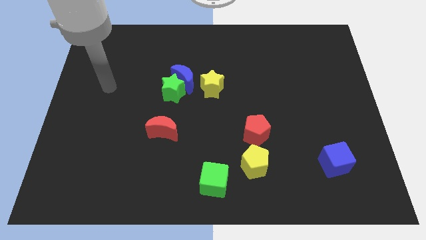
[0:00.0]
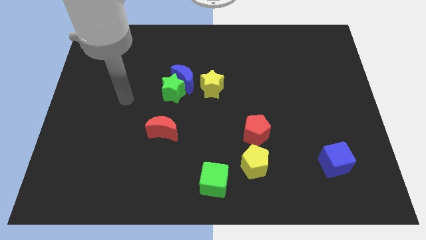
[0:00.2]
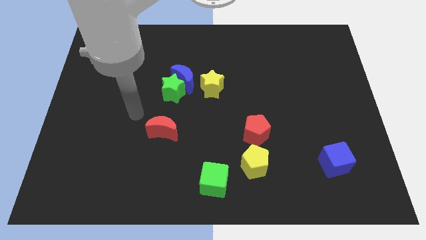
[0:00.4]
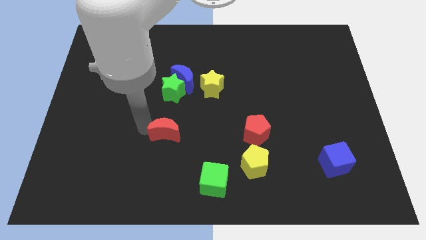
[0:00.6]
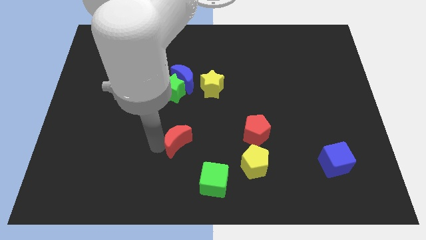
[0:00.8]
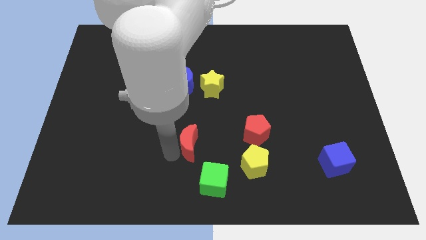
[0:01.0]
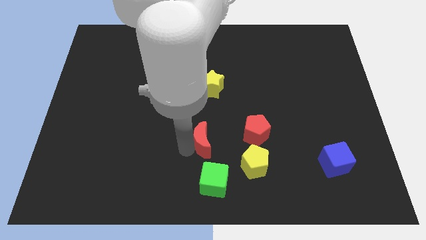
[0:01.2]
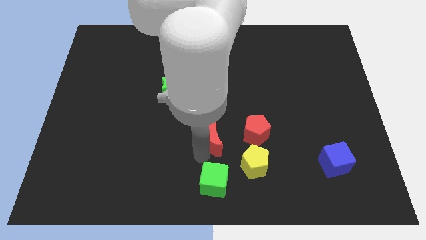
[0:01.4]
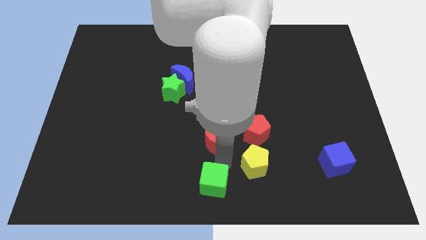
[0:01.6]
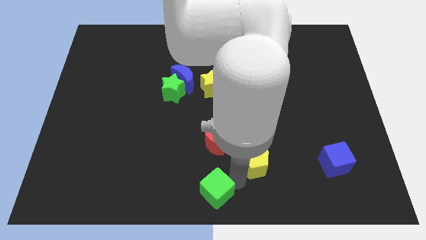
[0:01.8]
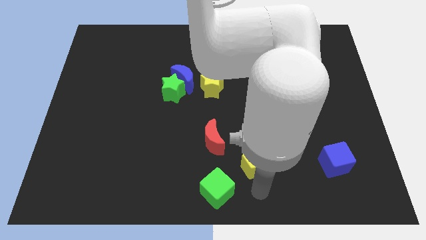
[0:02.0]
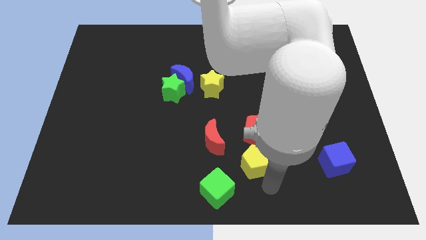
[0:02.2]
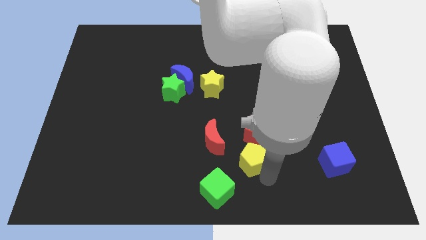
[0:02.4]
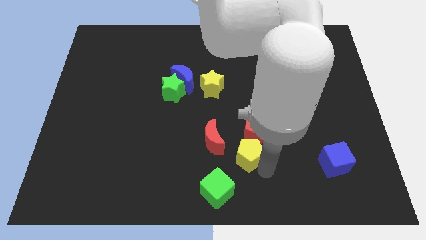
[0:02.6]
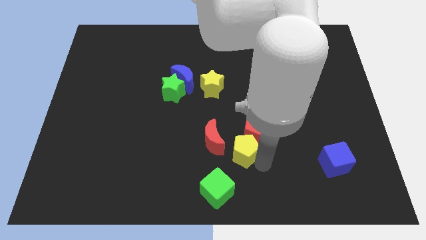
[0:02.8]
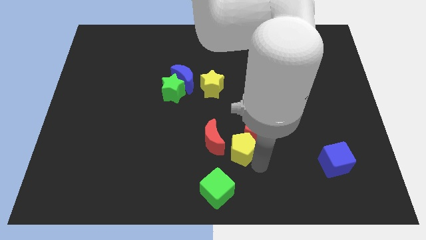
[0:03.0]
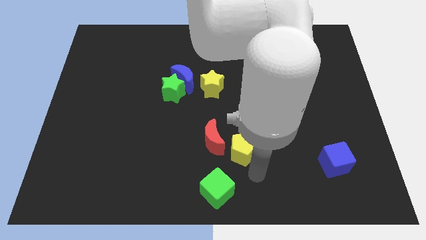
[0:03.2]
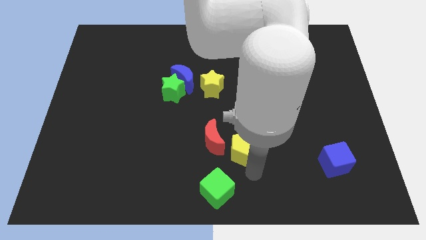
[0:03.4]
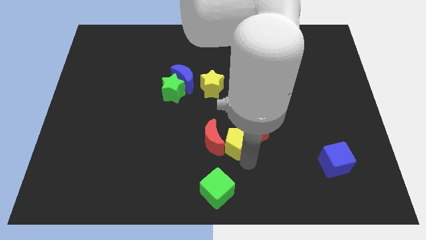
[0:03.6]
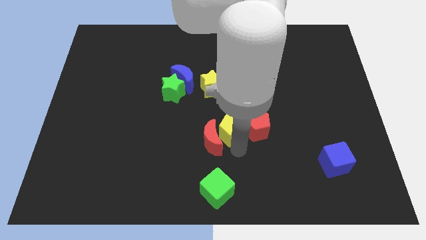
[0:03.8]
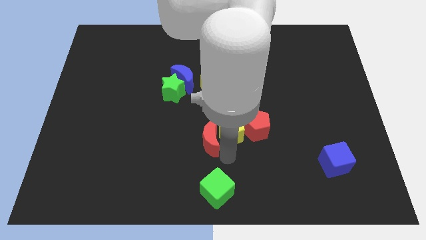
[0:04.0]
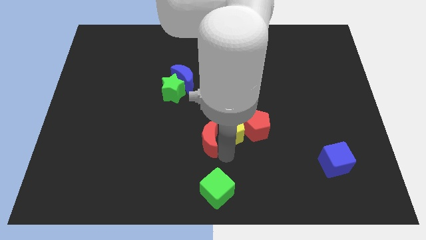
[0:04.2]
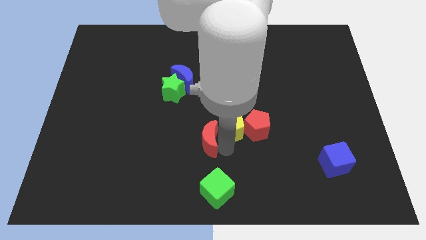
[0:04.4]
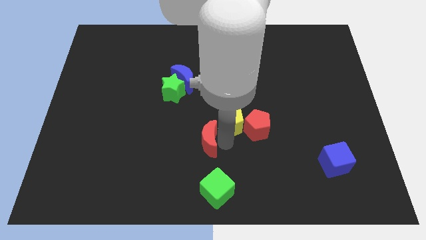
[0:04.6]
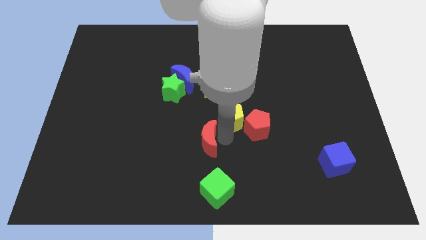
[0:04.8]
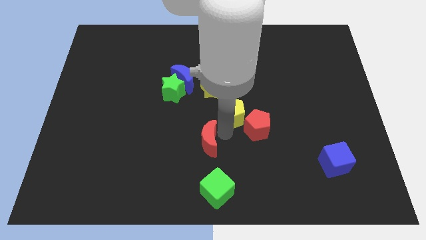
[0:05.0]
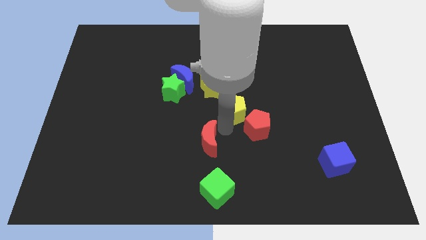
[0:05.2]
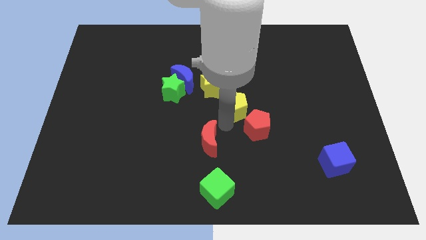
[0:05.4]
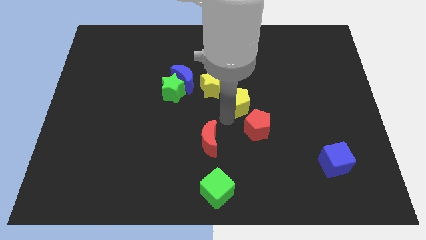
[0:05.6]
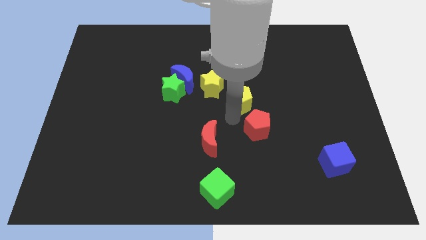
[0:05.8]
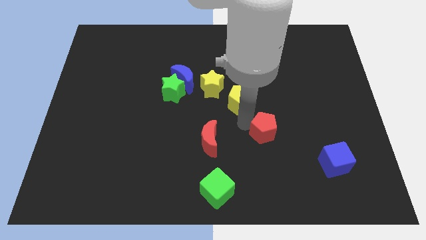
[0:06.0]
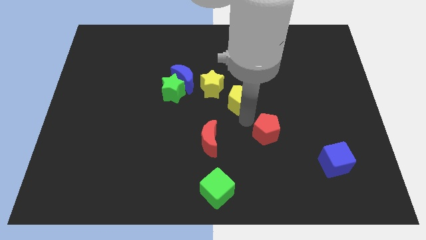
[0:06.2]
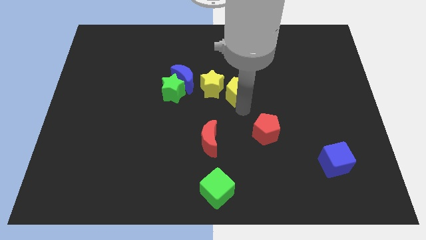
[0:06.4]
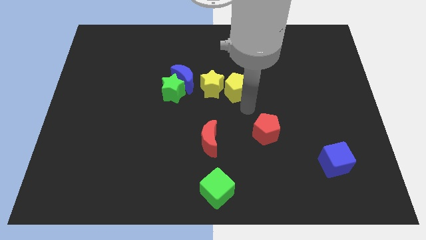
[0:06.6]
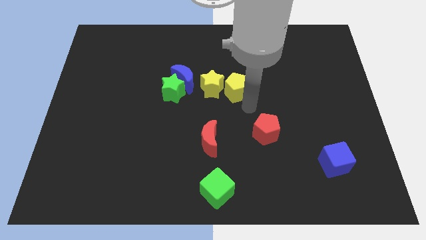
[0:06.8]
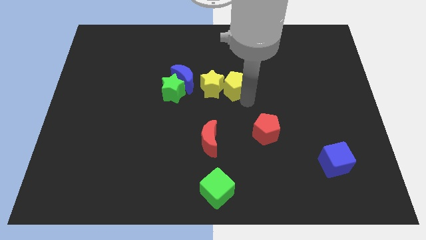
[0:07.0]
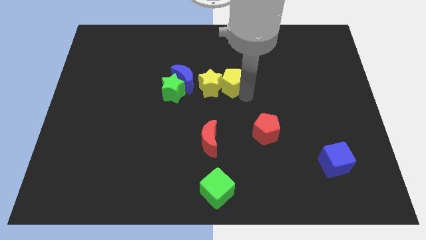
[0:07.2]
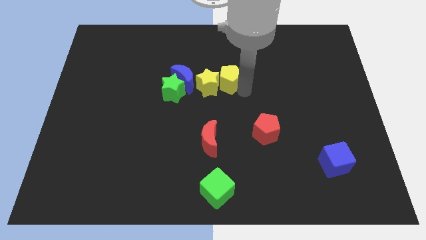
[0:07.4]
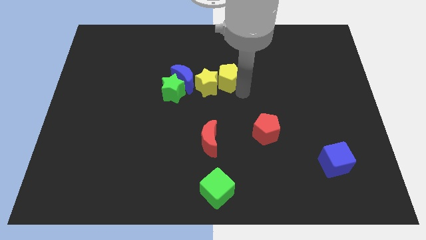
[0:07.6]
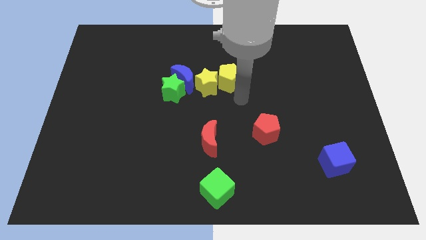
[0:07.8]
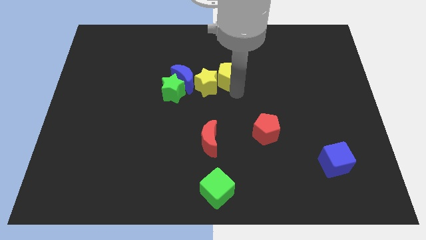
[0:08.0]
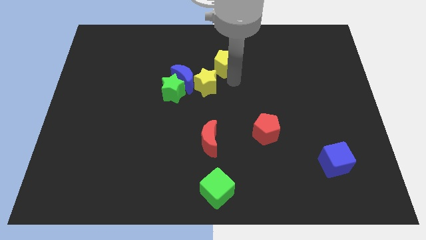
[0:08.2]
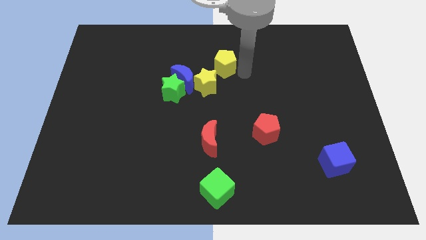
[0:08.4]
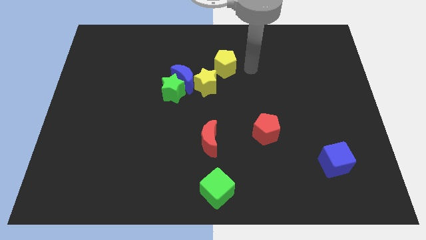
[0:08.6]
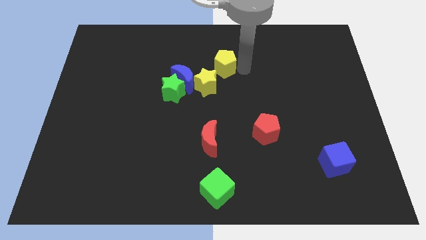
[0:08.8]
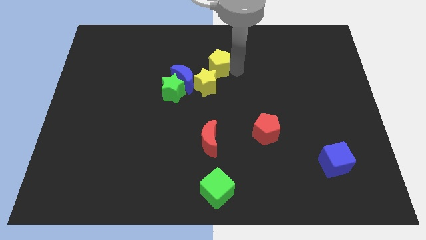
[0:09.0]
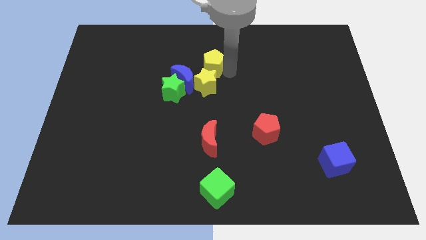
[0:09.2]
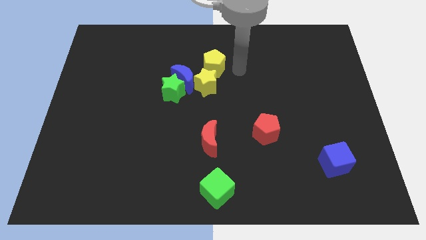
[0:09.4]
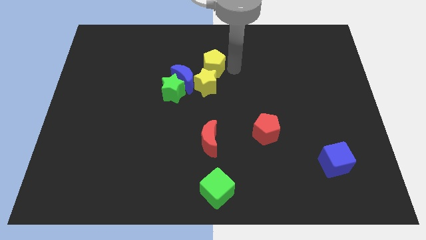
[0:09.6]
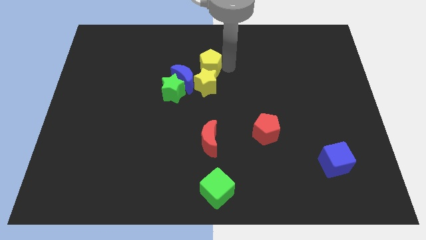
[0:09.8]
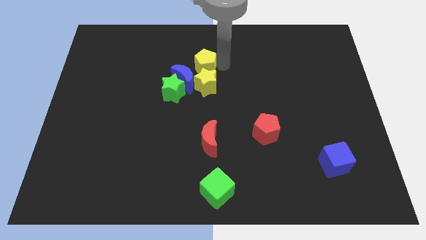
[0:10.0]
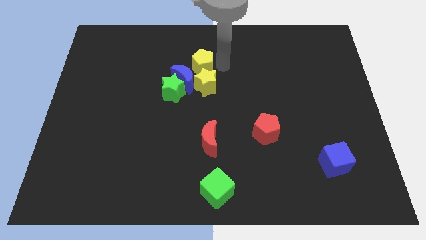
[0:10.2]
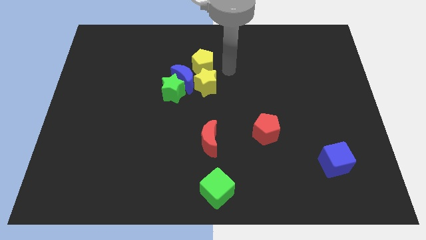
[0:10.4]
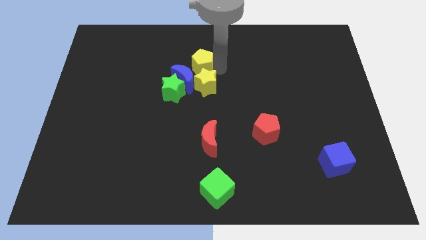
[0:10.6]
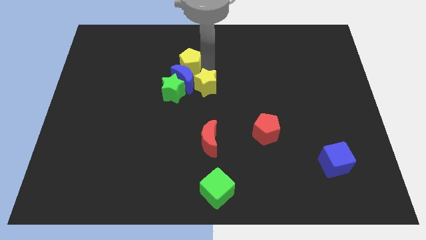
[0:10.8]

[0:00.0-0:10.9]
put the yellow pentagon above the green star

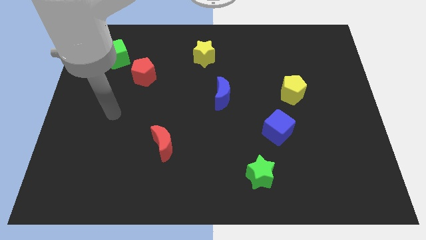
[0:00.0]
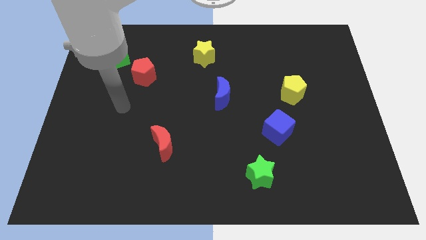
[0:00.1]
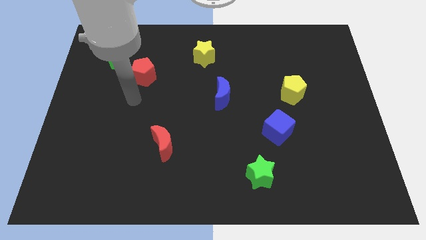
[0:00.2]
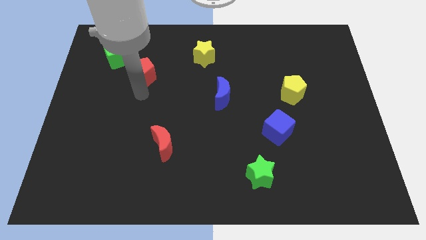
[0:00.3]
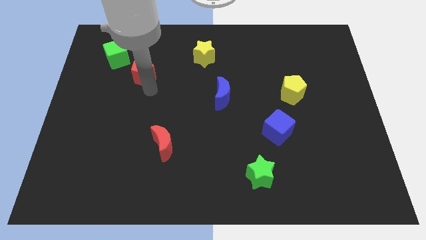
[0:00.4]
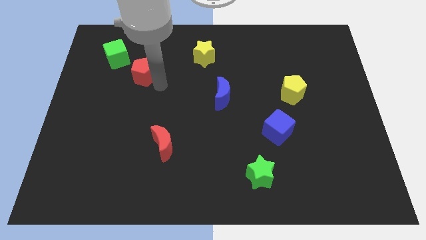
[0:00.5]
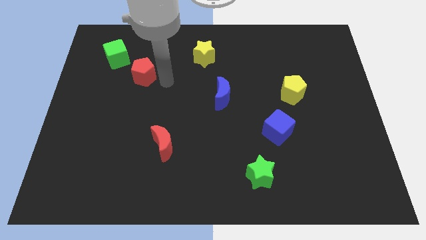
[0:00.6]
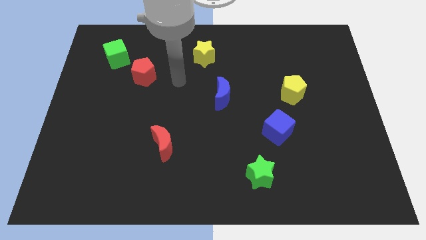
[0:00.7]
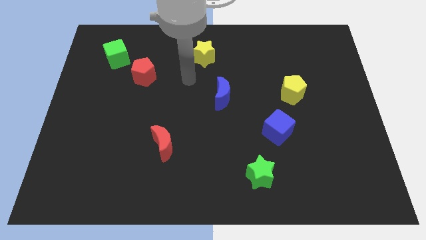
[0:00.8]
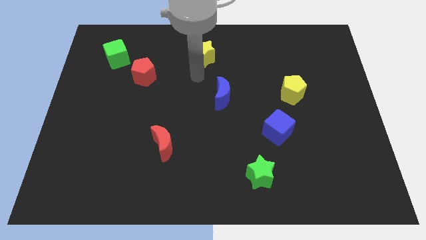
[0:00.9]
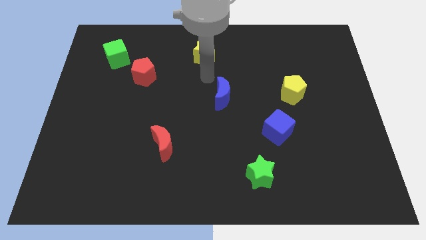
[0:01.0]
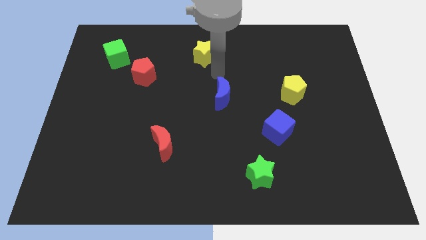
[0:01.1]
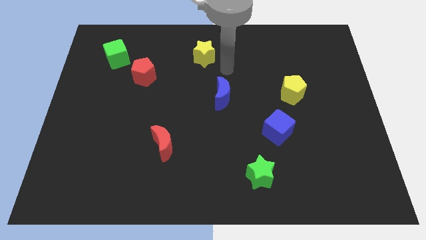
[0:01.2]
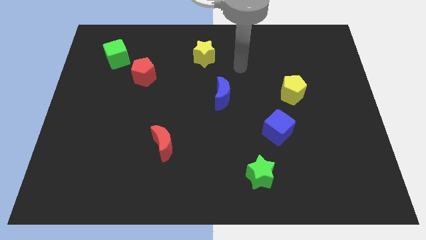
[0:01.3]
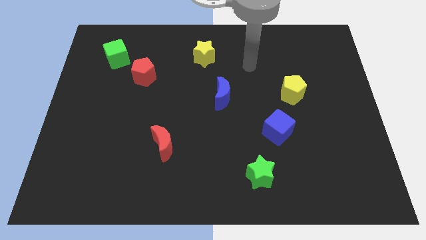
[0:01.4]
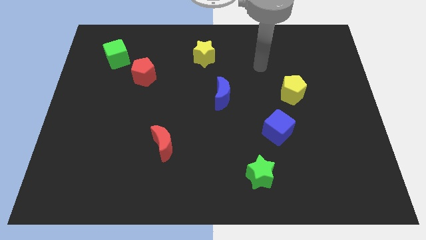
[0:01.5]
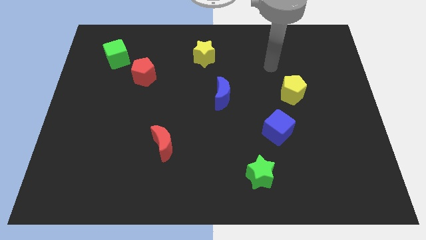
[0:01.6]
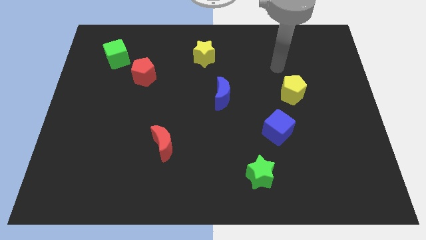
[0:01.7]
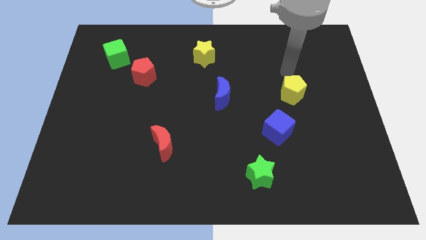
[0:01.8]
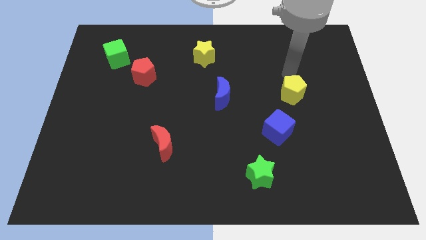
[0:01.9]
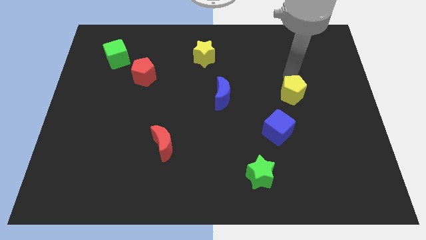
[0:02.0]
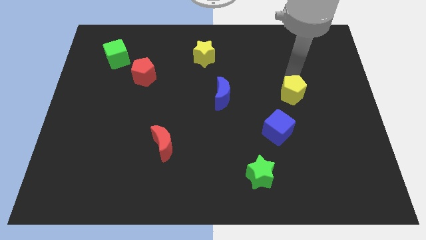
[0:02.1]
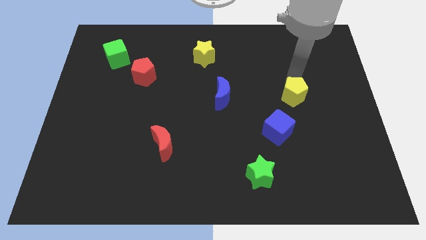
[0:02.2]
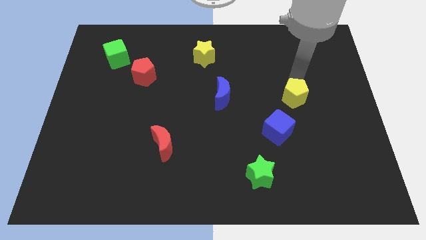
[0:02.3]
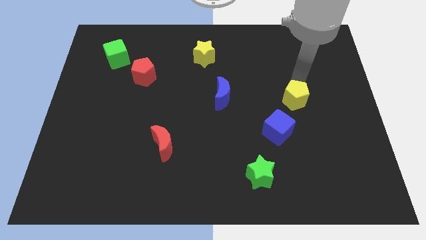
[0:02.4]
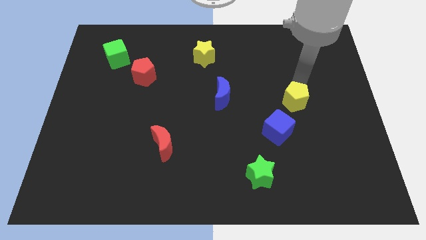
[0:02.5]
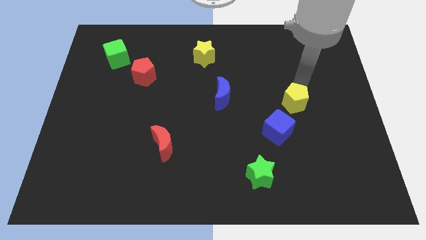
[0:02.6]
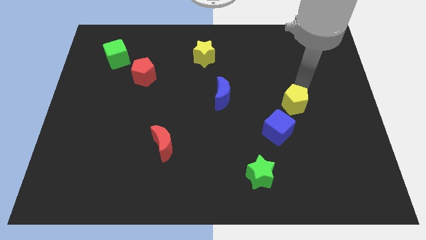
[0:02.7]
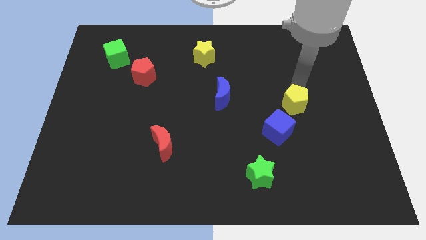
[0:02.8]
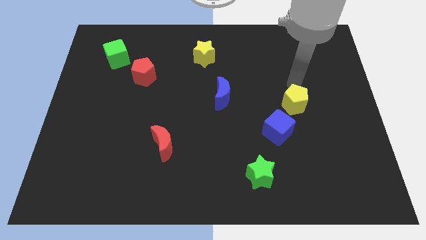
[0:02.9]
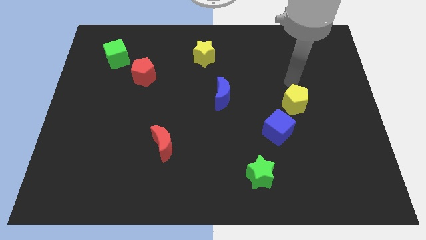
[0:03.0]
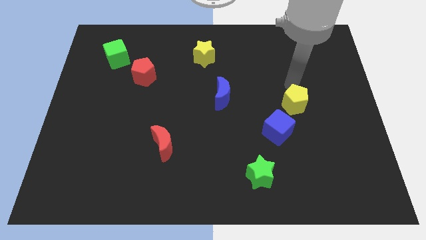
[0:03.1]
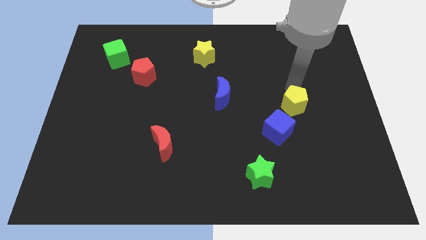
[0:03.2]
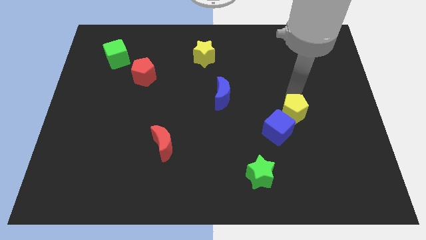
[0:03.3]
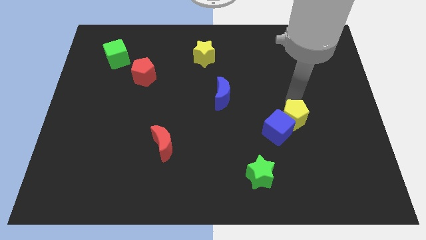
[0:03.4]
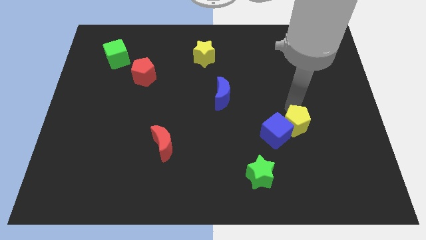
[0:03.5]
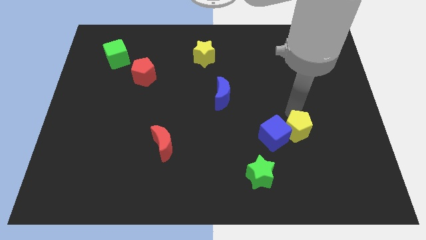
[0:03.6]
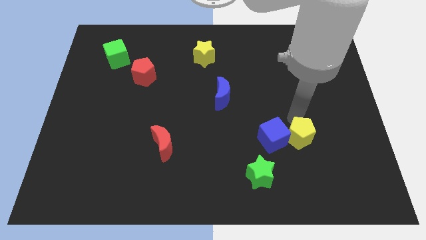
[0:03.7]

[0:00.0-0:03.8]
slide the yellow pentagon to the bottom right side of the blue cube
